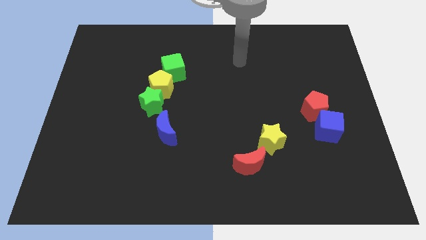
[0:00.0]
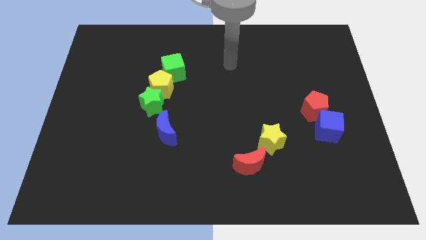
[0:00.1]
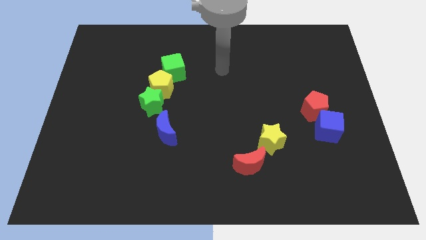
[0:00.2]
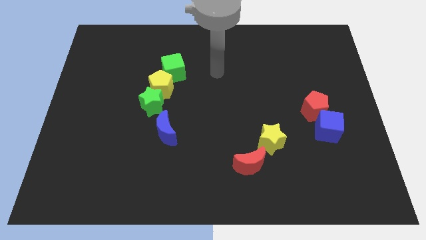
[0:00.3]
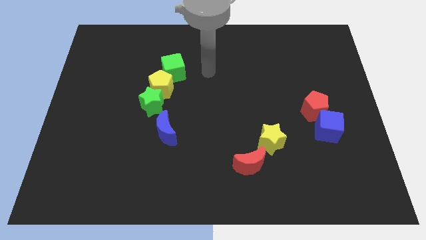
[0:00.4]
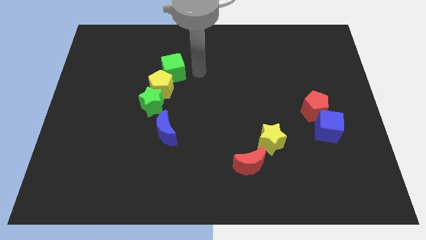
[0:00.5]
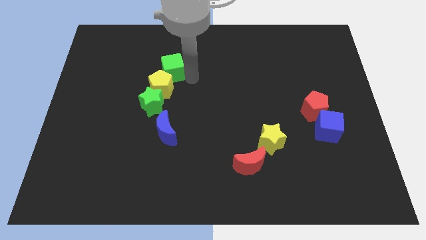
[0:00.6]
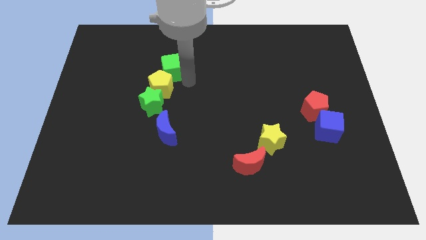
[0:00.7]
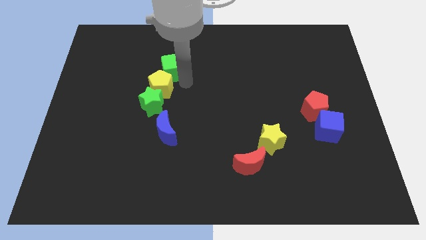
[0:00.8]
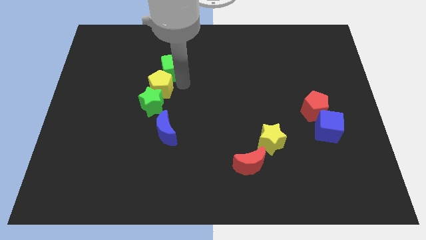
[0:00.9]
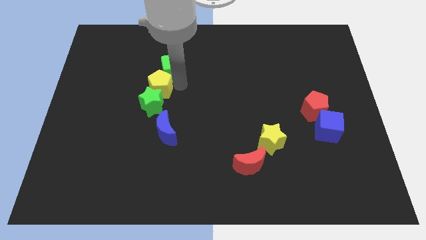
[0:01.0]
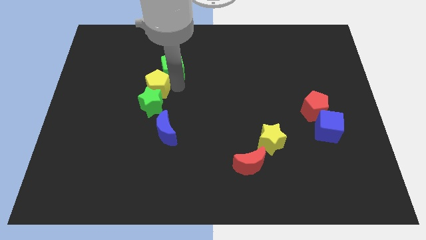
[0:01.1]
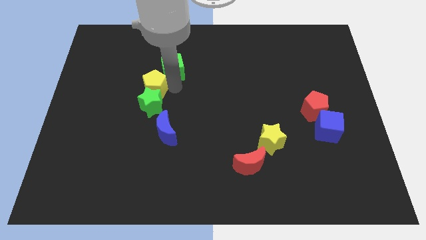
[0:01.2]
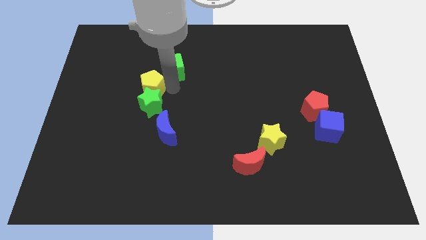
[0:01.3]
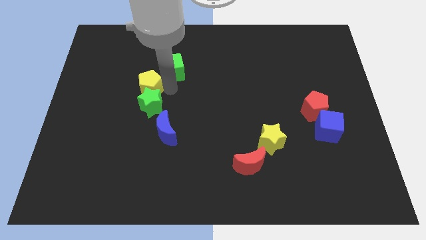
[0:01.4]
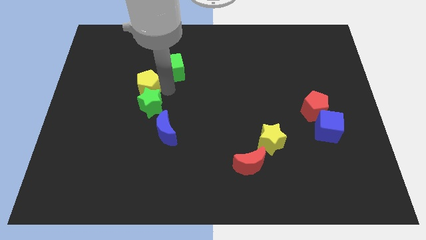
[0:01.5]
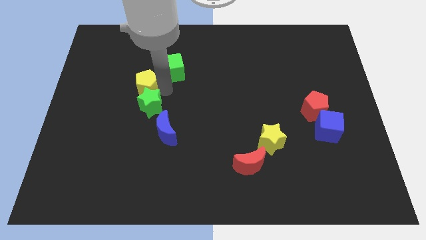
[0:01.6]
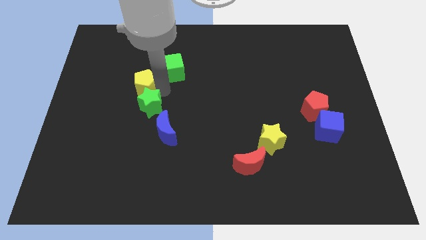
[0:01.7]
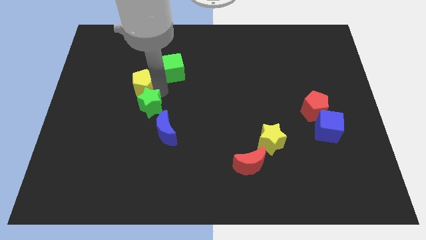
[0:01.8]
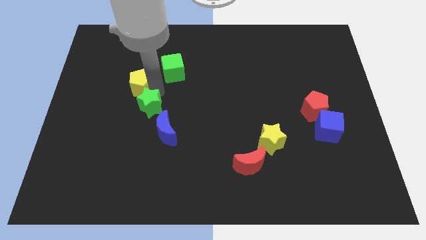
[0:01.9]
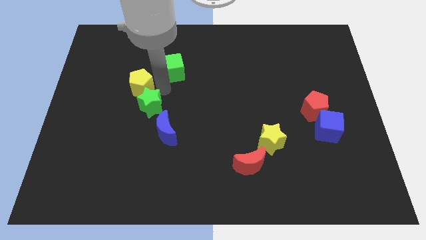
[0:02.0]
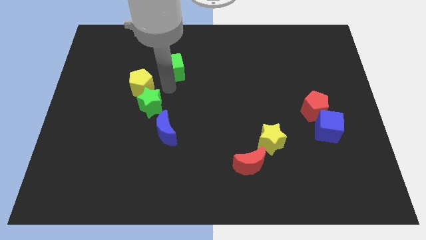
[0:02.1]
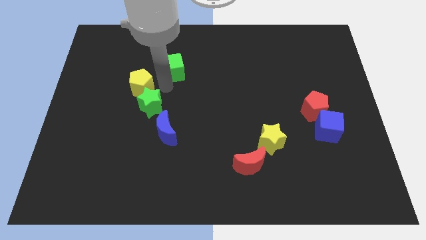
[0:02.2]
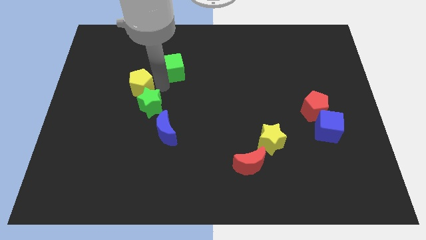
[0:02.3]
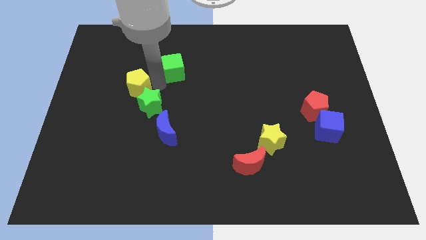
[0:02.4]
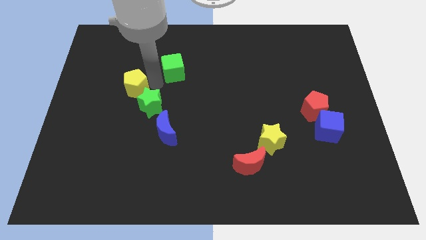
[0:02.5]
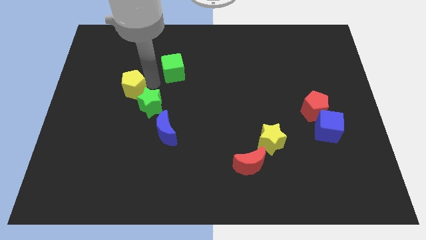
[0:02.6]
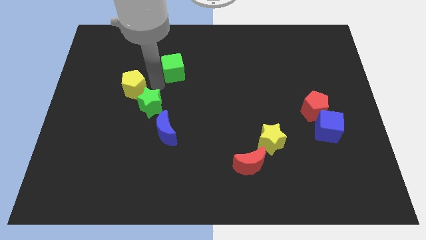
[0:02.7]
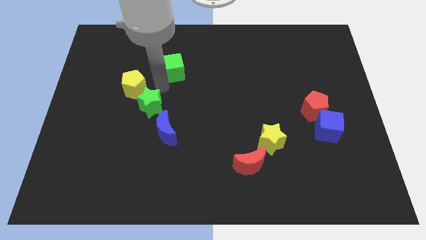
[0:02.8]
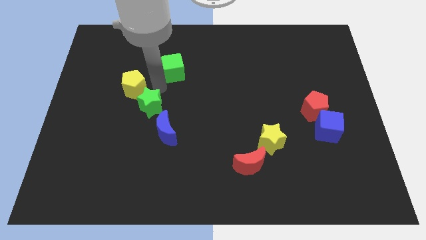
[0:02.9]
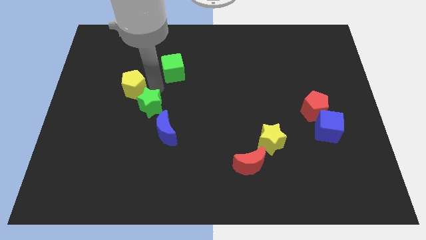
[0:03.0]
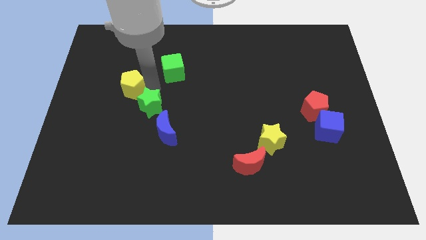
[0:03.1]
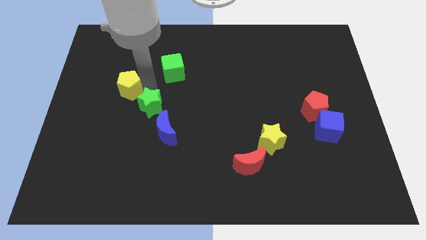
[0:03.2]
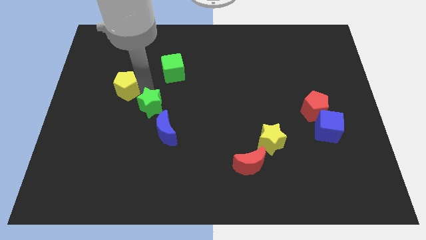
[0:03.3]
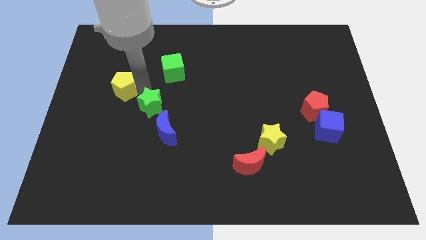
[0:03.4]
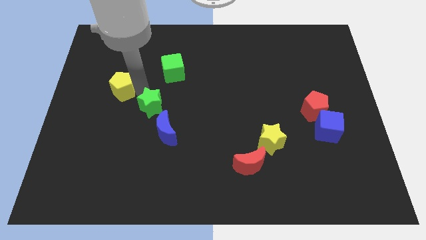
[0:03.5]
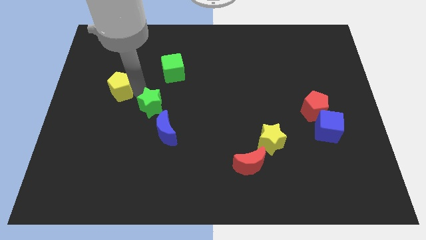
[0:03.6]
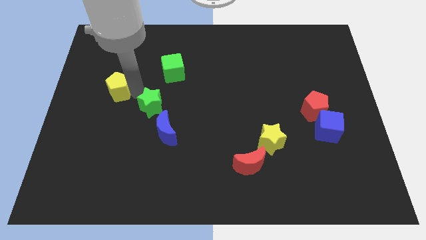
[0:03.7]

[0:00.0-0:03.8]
pull the yellow pentagon apart from the green star and green cube

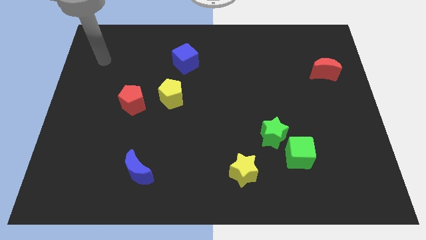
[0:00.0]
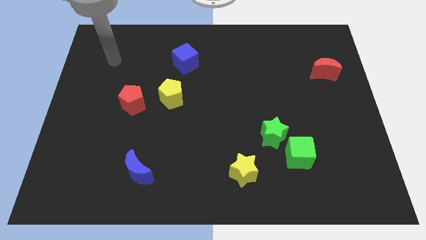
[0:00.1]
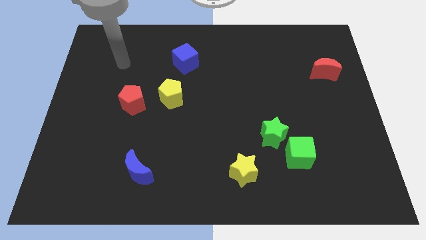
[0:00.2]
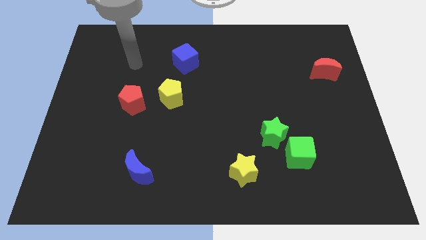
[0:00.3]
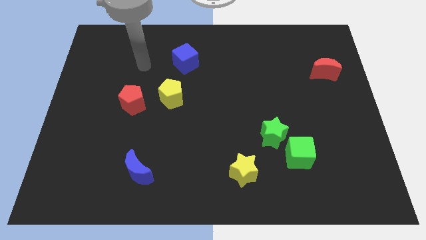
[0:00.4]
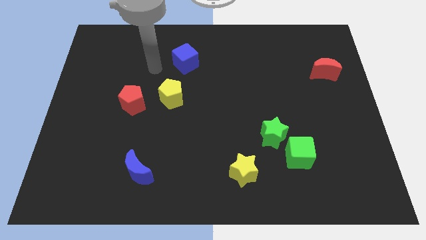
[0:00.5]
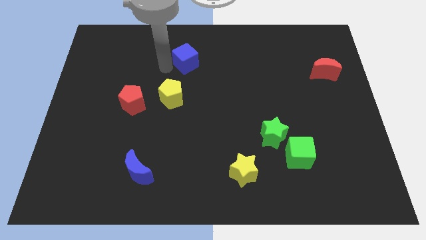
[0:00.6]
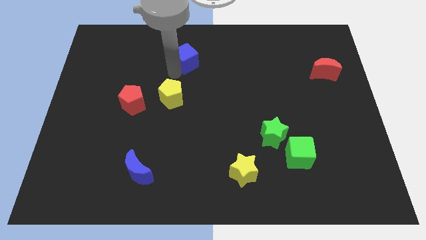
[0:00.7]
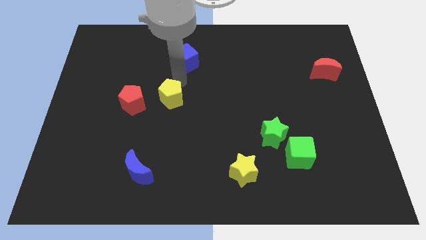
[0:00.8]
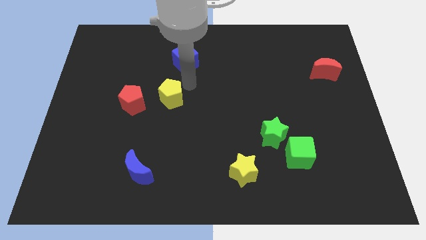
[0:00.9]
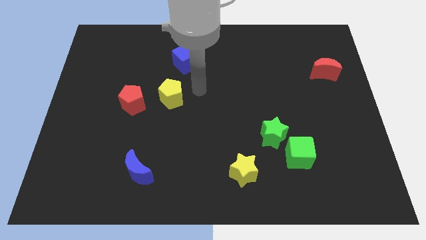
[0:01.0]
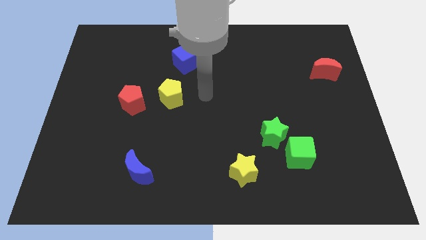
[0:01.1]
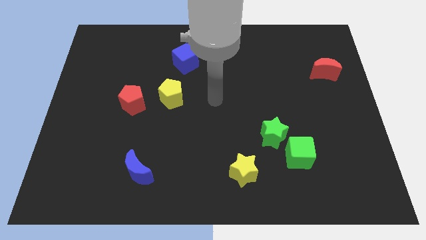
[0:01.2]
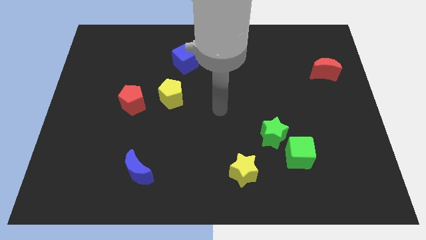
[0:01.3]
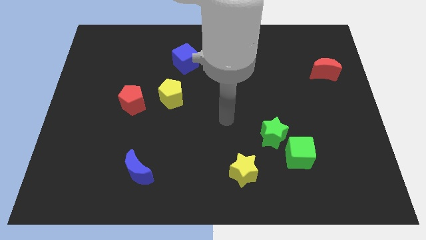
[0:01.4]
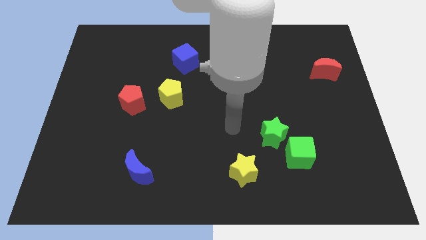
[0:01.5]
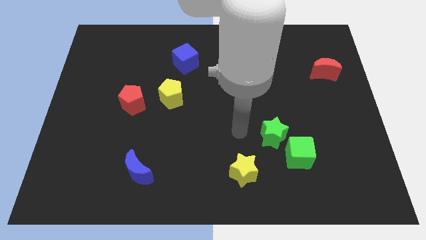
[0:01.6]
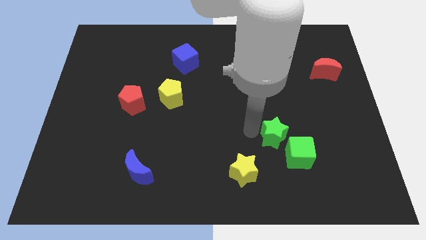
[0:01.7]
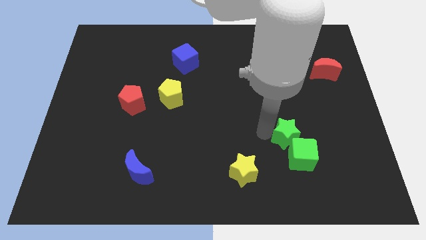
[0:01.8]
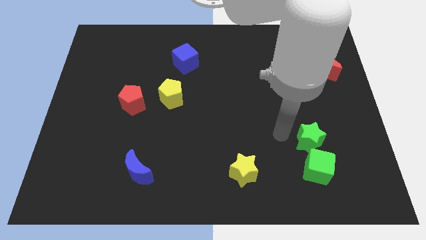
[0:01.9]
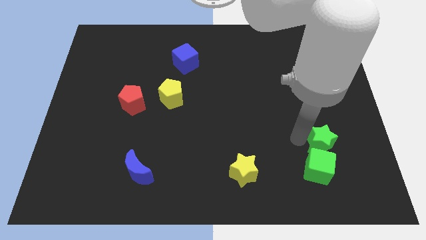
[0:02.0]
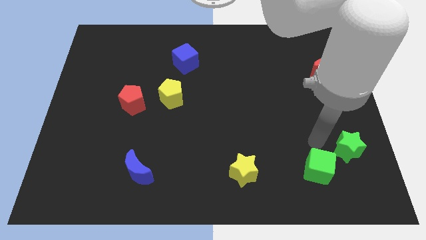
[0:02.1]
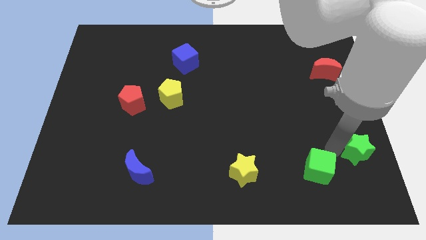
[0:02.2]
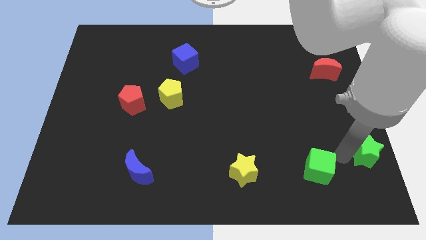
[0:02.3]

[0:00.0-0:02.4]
move the green cube away from the green star

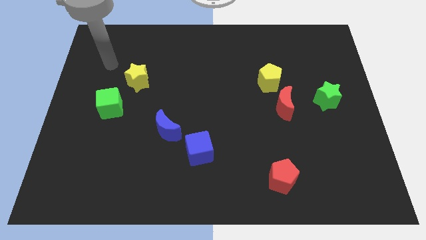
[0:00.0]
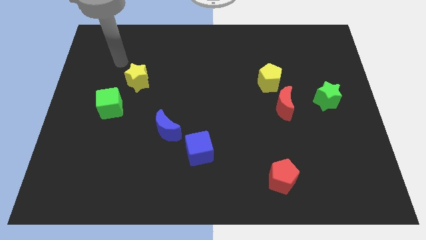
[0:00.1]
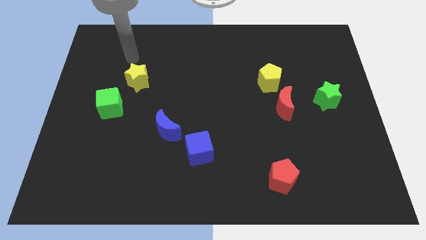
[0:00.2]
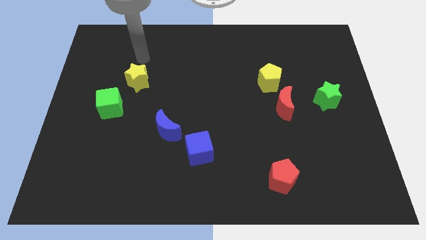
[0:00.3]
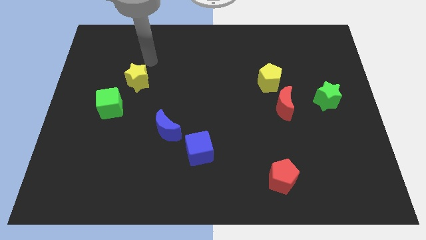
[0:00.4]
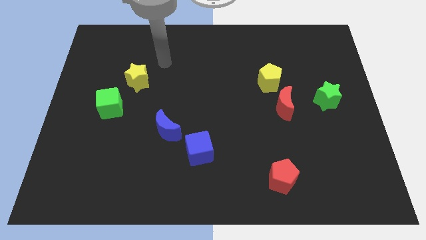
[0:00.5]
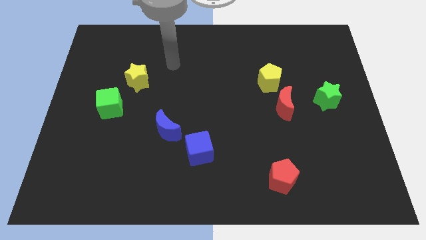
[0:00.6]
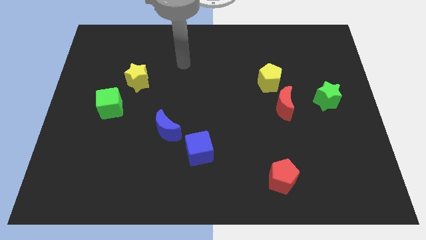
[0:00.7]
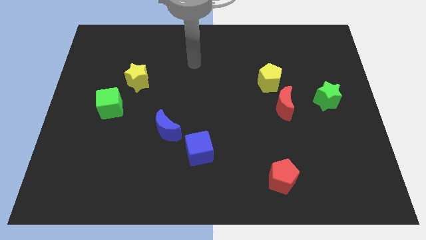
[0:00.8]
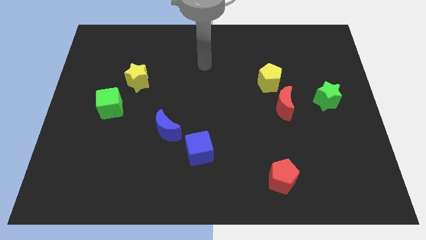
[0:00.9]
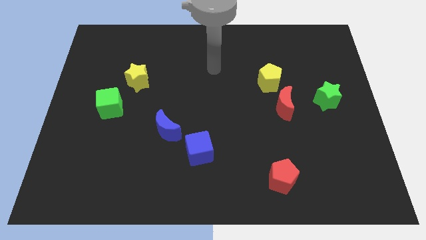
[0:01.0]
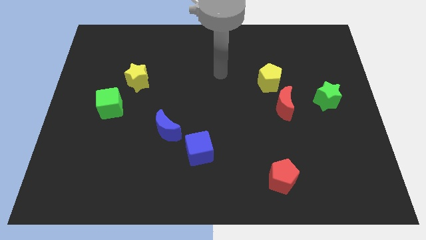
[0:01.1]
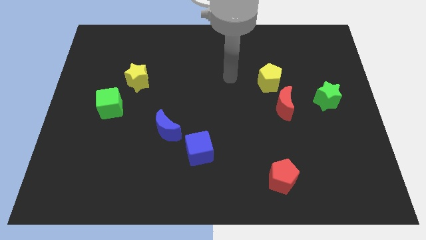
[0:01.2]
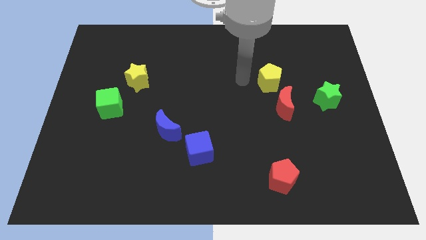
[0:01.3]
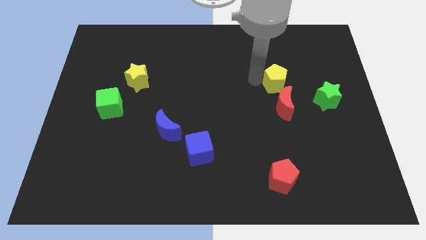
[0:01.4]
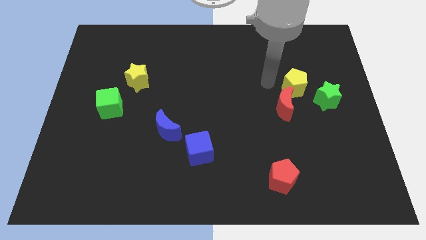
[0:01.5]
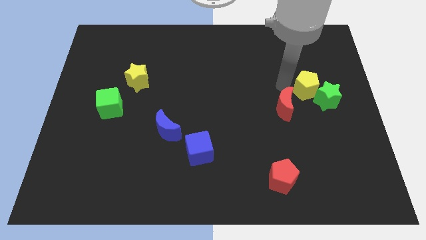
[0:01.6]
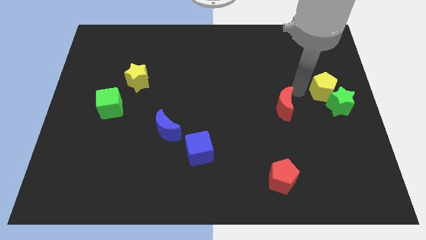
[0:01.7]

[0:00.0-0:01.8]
pull the red moon apart from the yellow pentagon

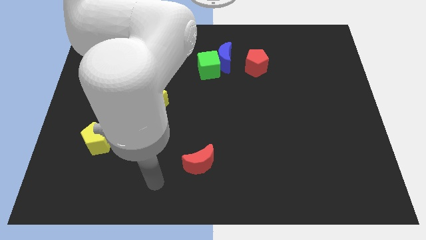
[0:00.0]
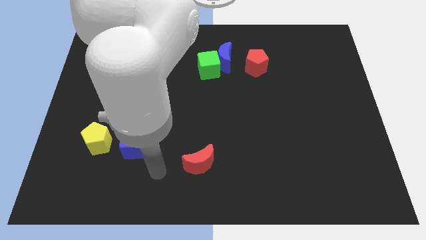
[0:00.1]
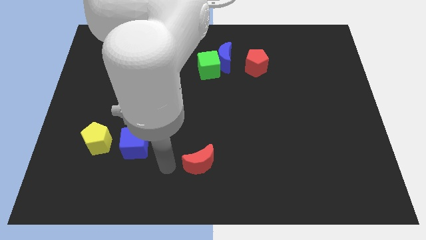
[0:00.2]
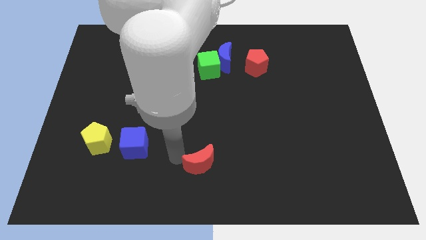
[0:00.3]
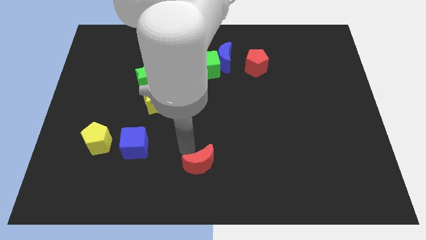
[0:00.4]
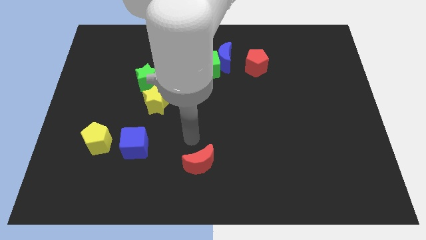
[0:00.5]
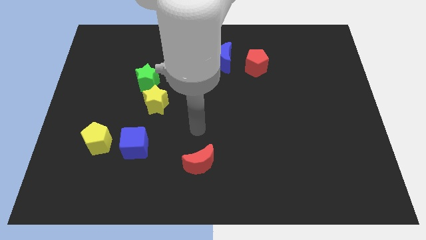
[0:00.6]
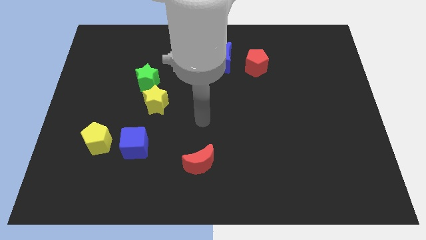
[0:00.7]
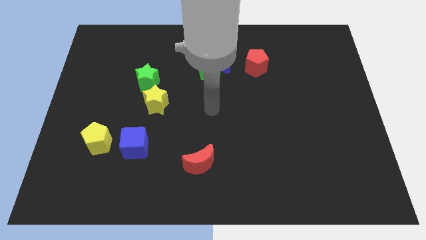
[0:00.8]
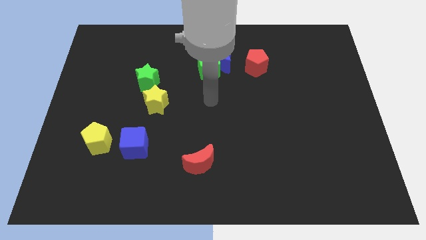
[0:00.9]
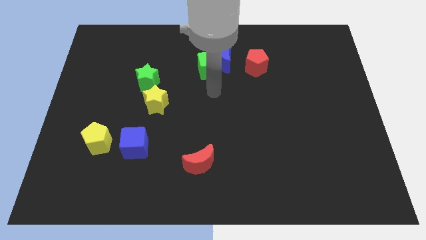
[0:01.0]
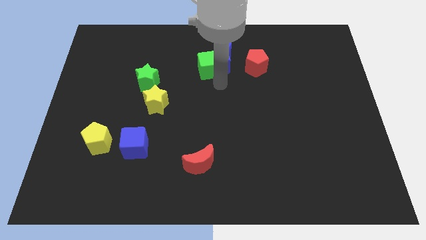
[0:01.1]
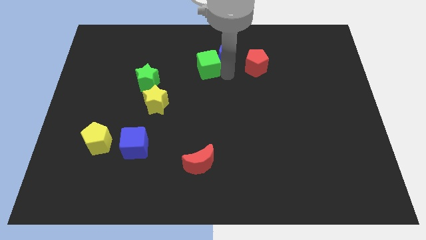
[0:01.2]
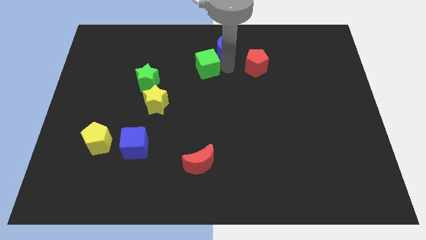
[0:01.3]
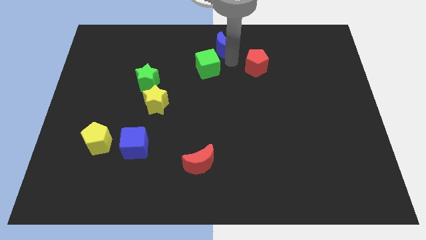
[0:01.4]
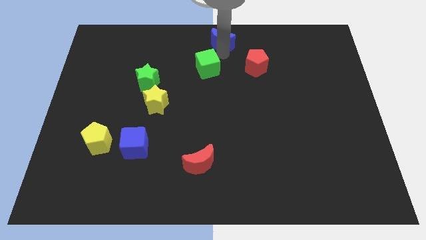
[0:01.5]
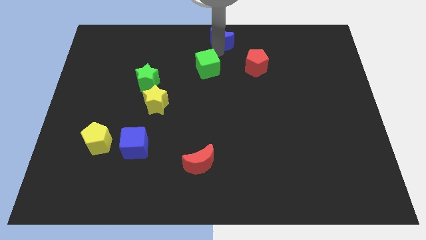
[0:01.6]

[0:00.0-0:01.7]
separate the green cube from the blue moon
